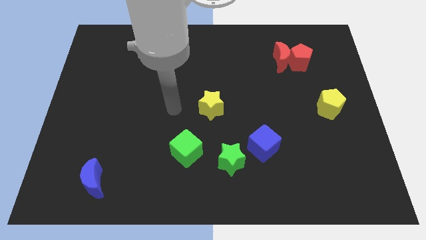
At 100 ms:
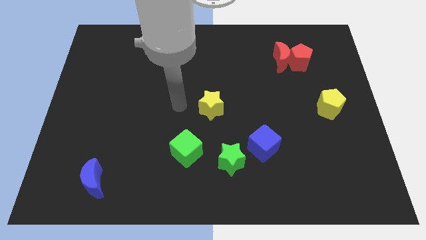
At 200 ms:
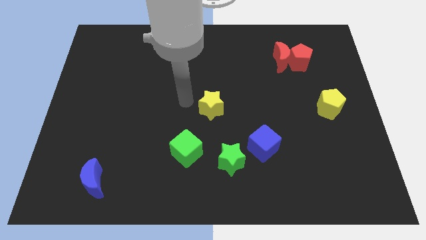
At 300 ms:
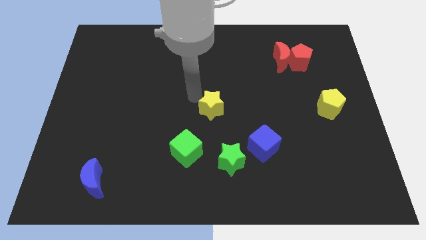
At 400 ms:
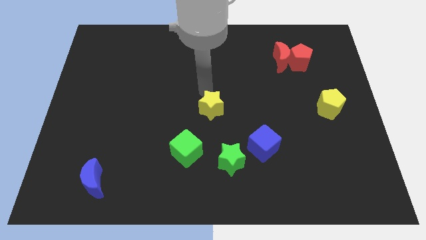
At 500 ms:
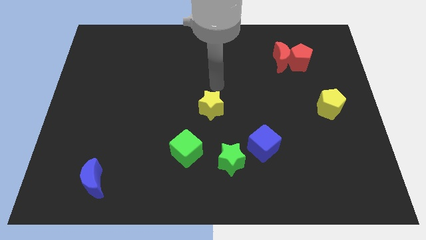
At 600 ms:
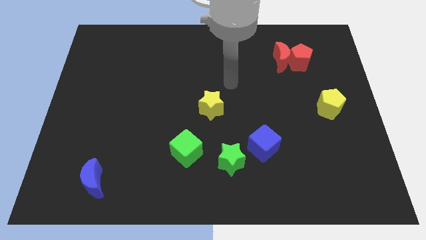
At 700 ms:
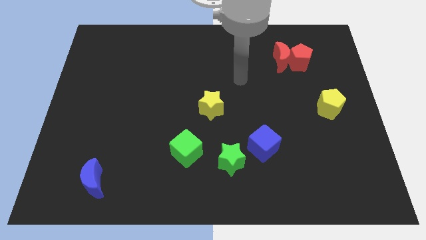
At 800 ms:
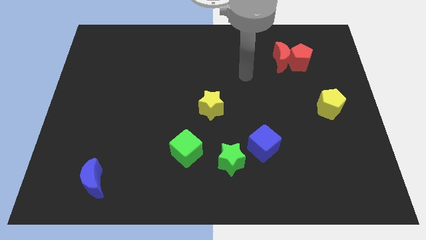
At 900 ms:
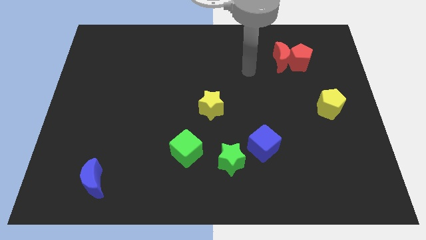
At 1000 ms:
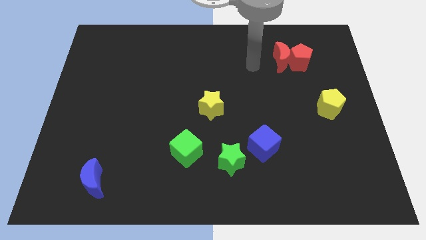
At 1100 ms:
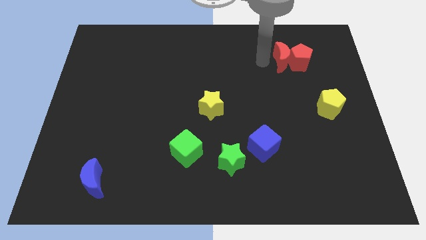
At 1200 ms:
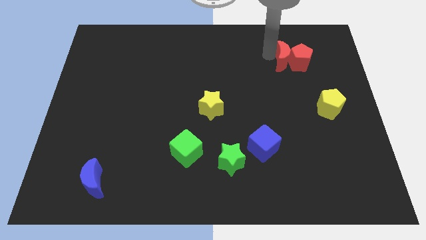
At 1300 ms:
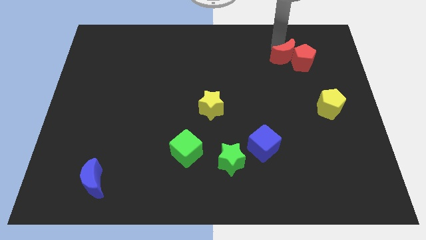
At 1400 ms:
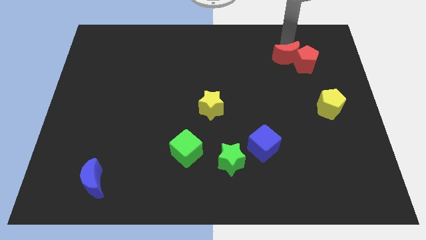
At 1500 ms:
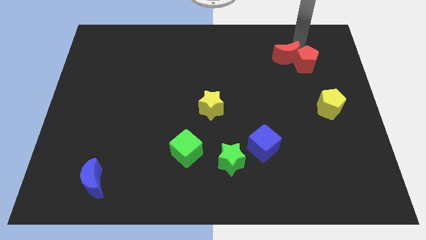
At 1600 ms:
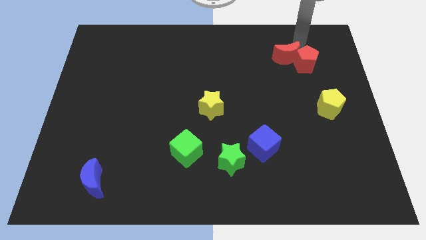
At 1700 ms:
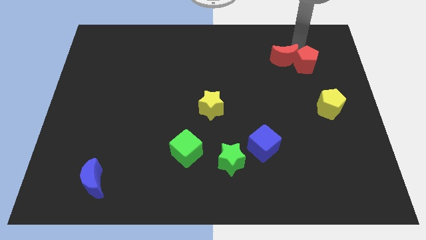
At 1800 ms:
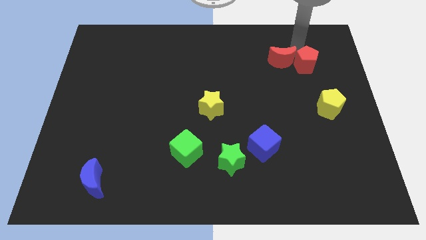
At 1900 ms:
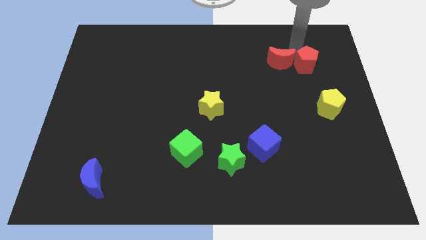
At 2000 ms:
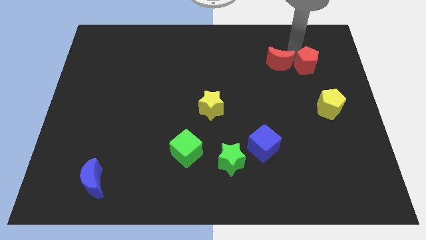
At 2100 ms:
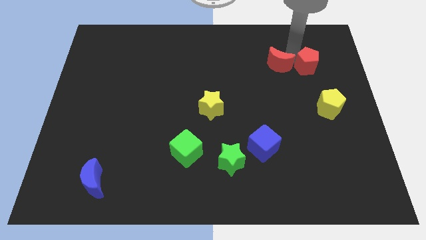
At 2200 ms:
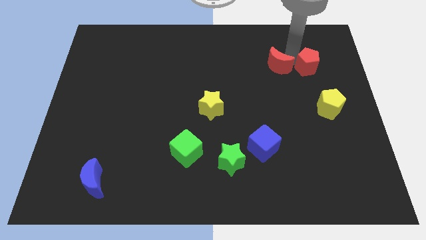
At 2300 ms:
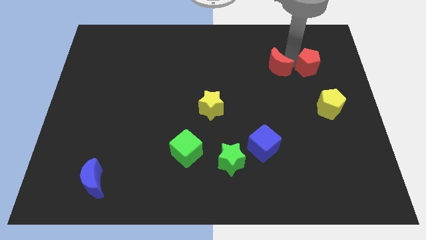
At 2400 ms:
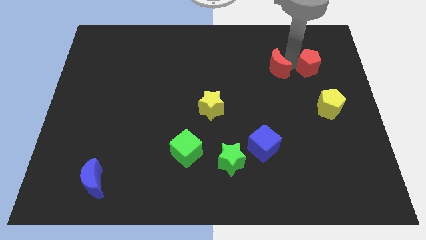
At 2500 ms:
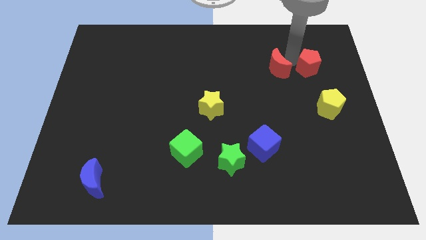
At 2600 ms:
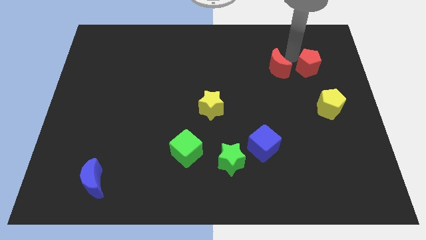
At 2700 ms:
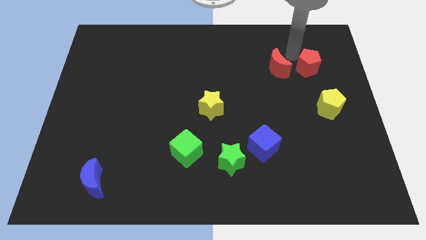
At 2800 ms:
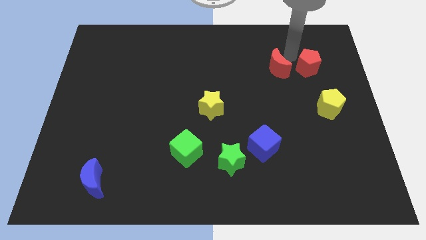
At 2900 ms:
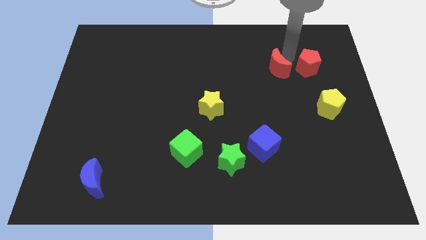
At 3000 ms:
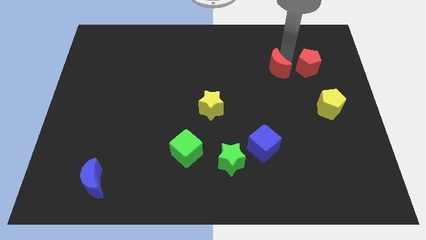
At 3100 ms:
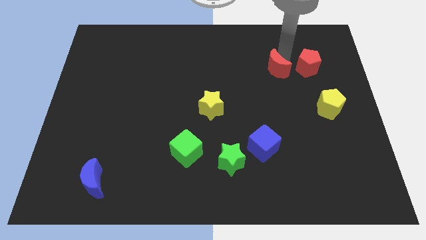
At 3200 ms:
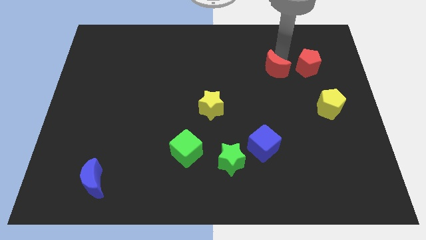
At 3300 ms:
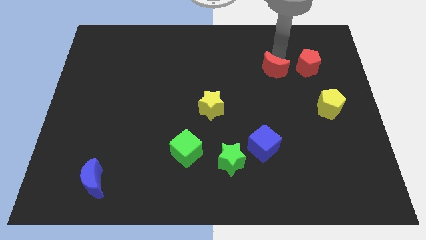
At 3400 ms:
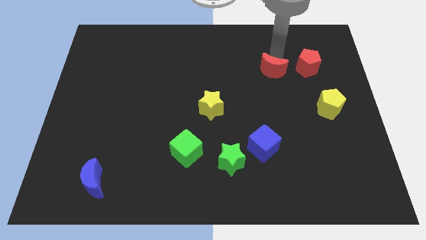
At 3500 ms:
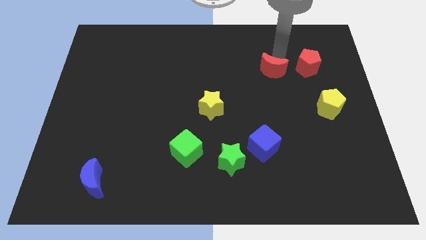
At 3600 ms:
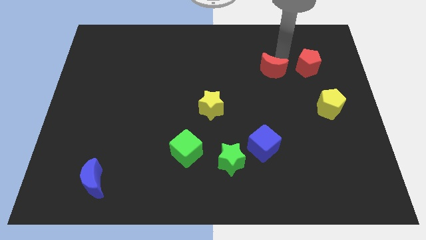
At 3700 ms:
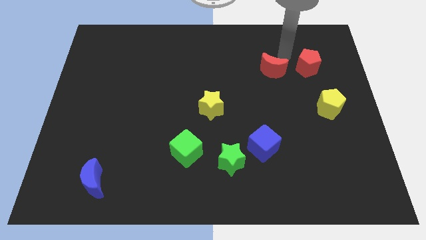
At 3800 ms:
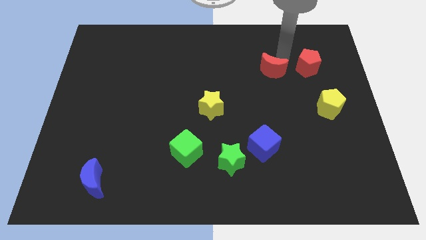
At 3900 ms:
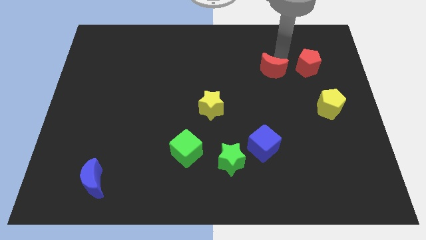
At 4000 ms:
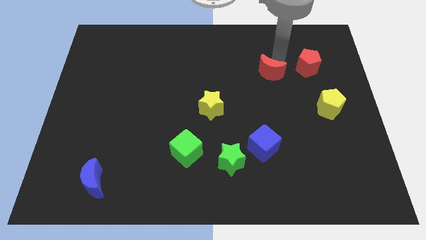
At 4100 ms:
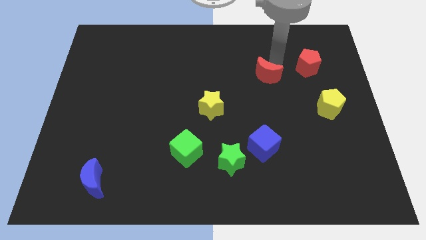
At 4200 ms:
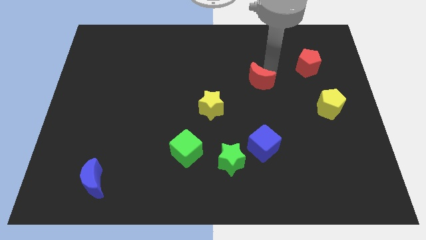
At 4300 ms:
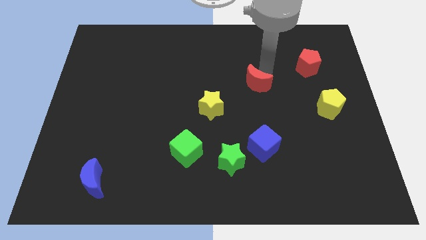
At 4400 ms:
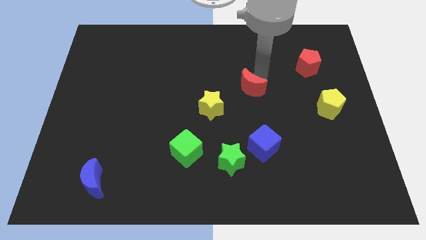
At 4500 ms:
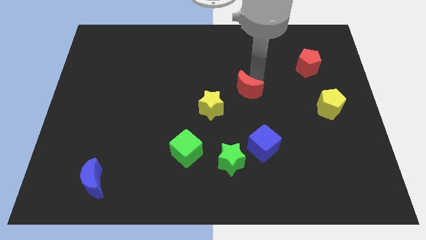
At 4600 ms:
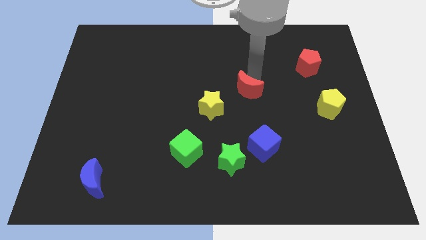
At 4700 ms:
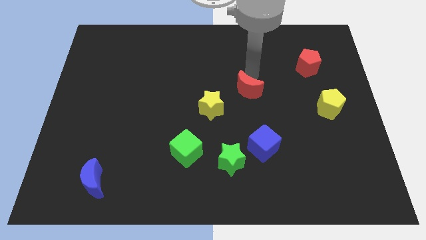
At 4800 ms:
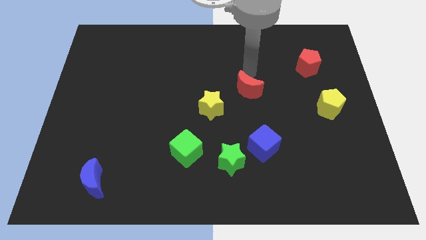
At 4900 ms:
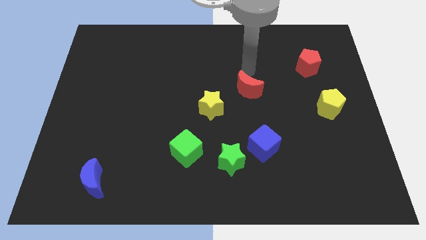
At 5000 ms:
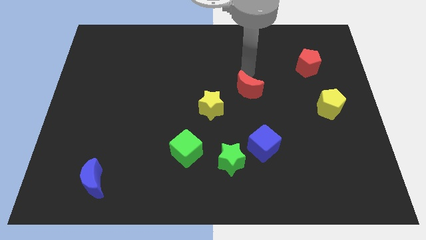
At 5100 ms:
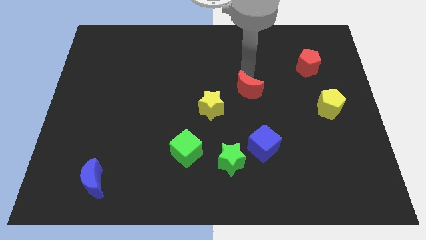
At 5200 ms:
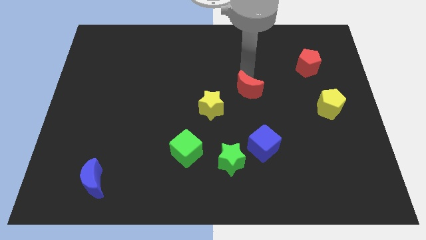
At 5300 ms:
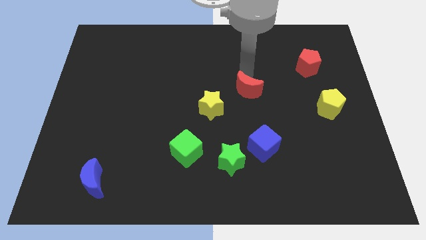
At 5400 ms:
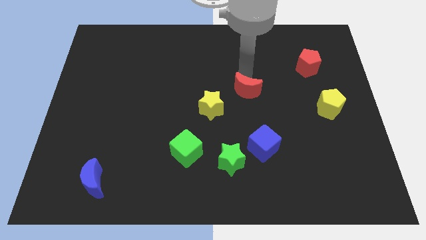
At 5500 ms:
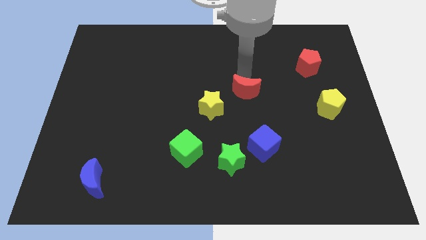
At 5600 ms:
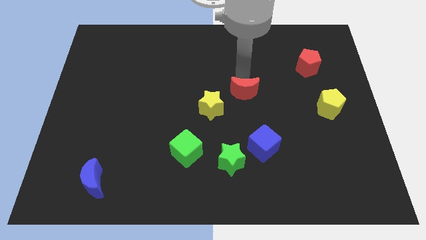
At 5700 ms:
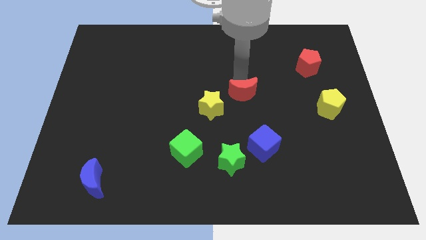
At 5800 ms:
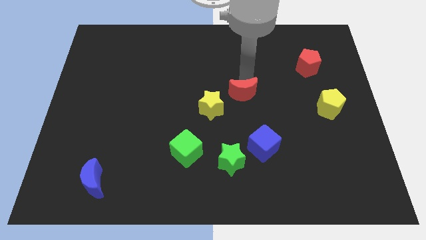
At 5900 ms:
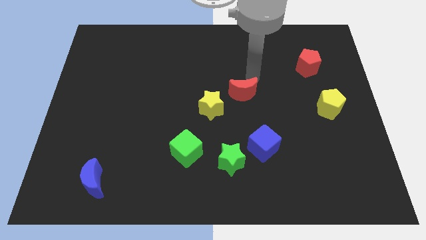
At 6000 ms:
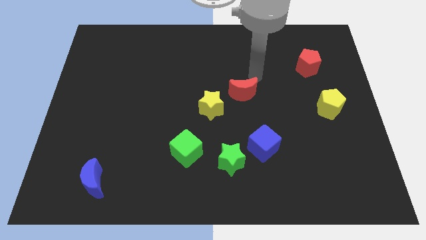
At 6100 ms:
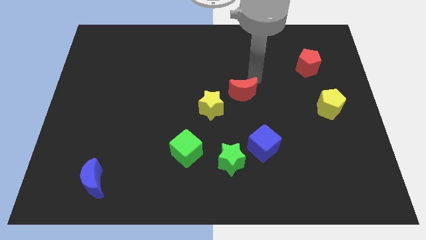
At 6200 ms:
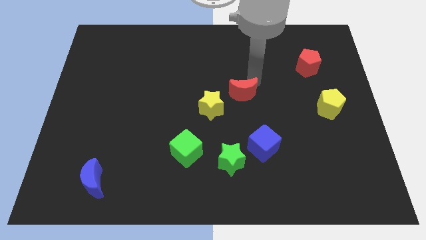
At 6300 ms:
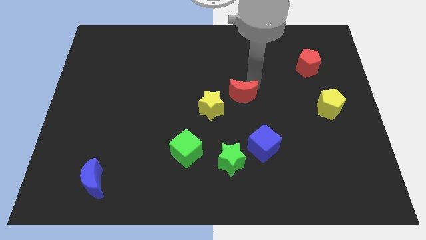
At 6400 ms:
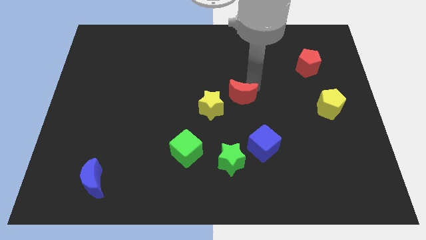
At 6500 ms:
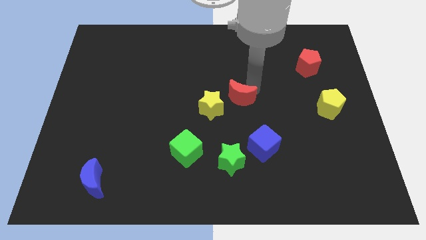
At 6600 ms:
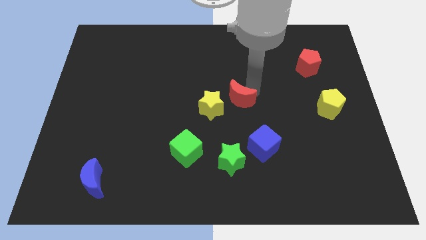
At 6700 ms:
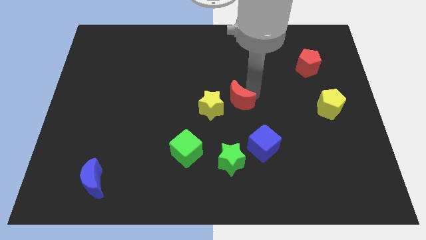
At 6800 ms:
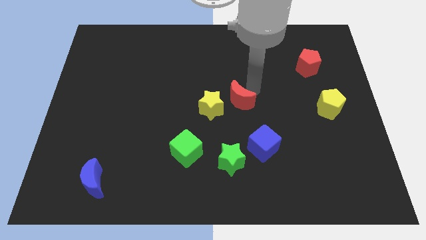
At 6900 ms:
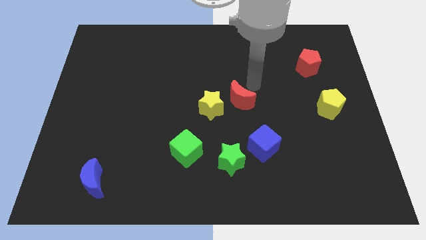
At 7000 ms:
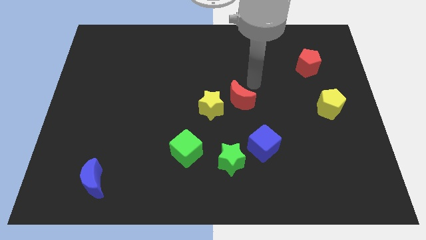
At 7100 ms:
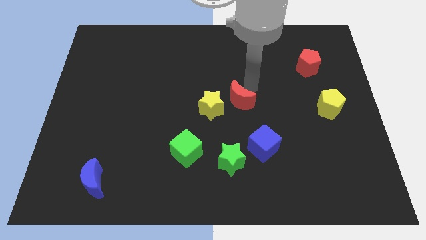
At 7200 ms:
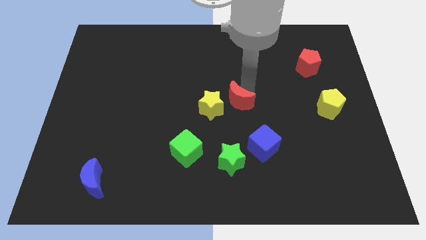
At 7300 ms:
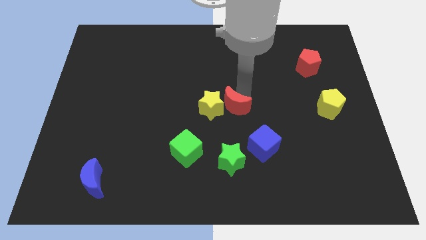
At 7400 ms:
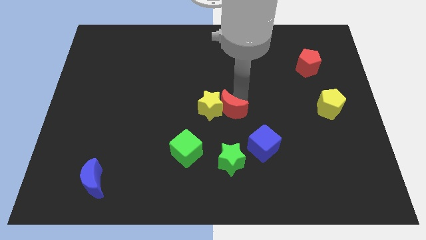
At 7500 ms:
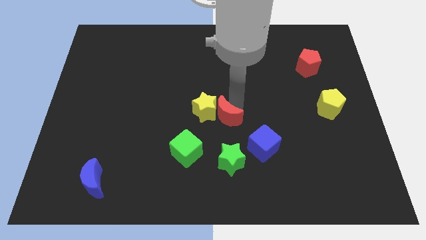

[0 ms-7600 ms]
put the red moon to the top right side of the green cube
